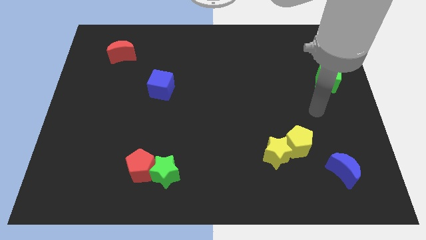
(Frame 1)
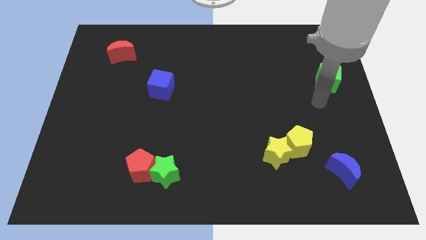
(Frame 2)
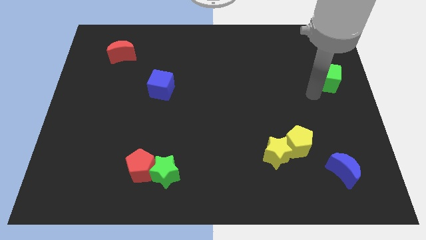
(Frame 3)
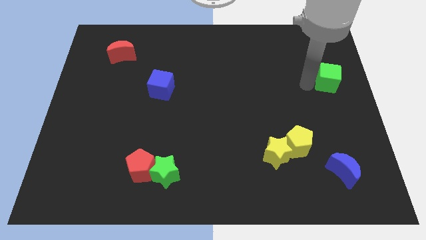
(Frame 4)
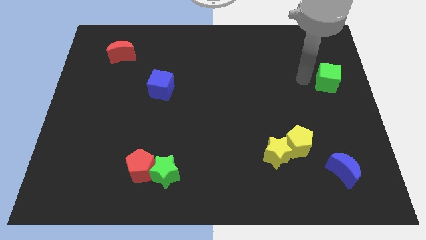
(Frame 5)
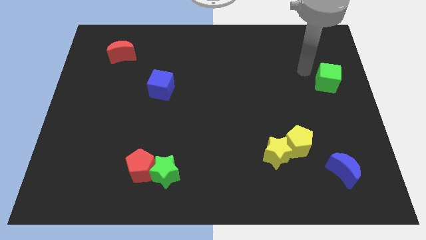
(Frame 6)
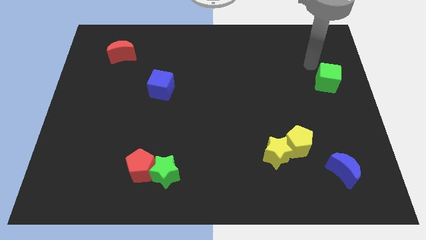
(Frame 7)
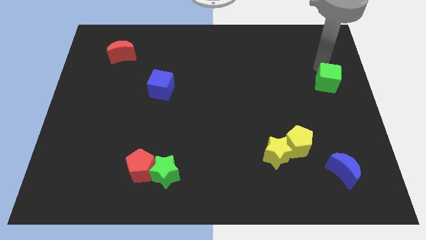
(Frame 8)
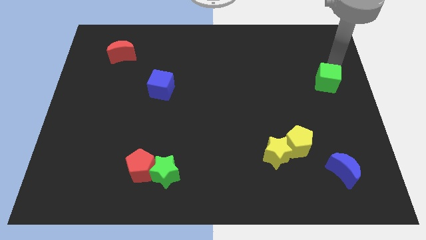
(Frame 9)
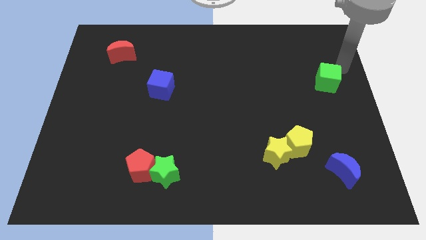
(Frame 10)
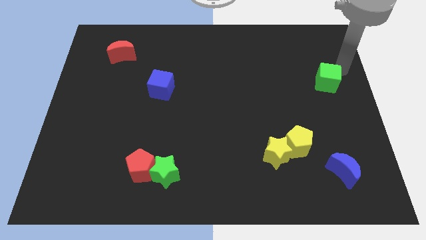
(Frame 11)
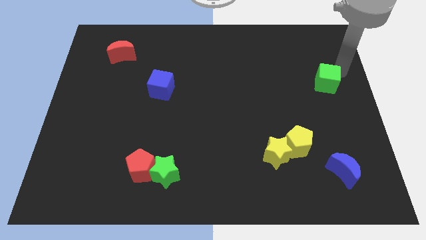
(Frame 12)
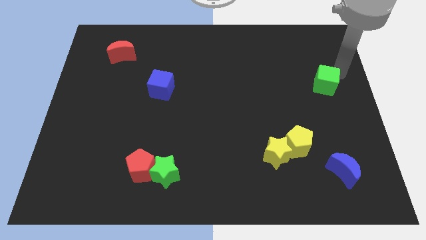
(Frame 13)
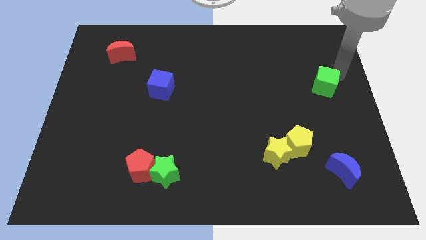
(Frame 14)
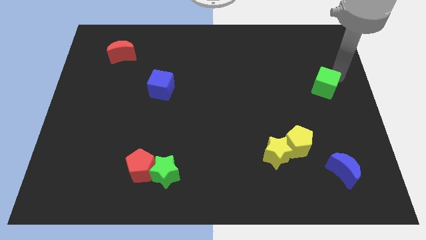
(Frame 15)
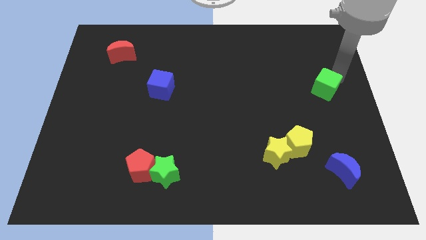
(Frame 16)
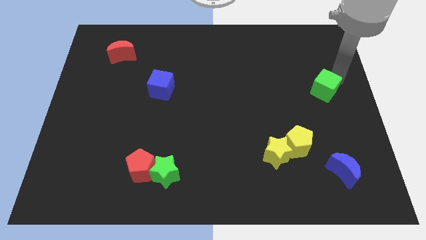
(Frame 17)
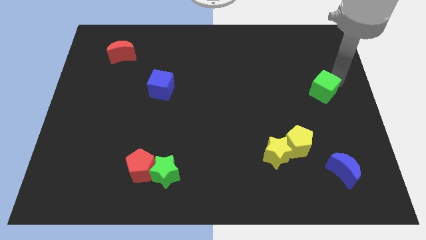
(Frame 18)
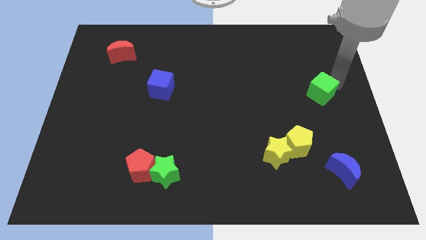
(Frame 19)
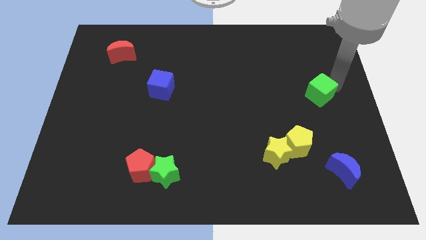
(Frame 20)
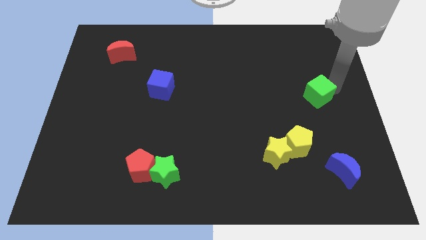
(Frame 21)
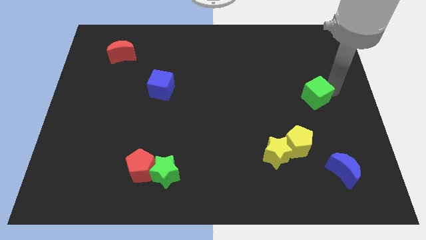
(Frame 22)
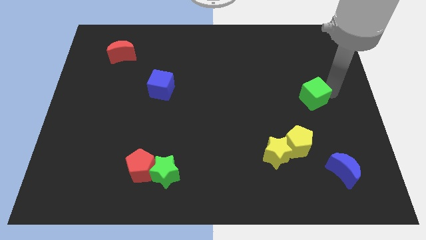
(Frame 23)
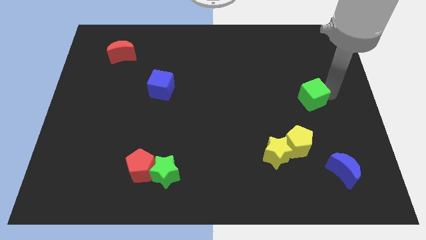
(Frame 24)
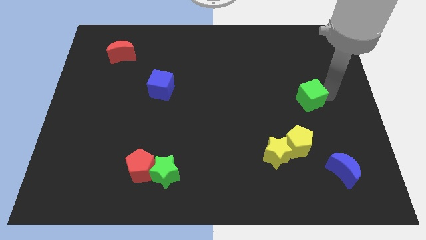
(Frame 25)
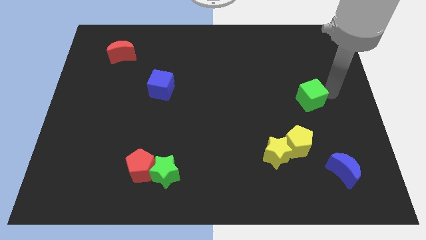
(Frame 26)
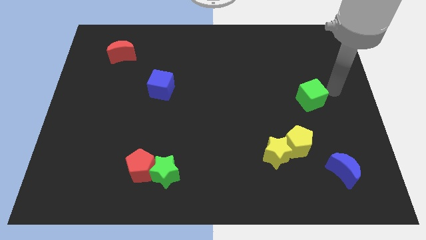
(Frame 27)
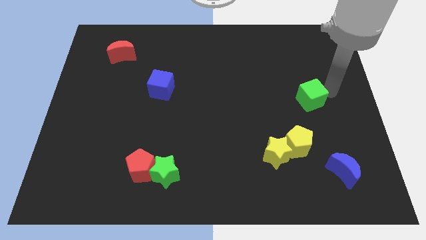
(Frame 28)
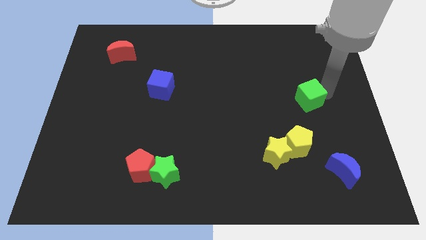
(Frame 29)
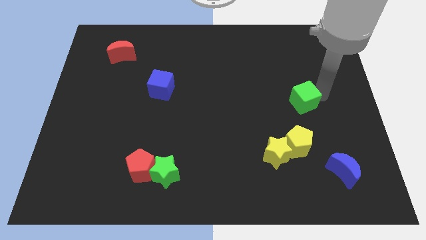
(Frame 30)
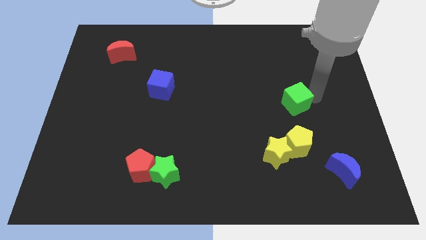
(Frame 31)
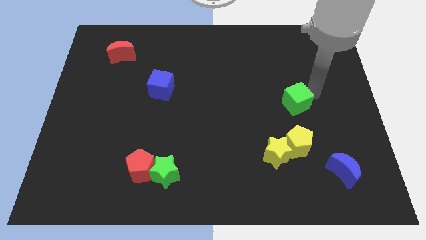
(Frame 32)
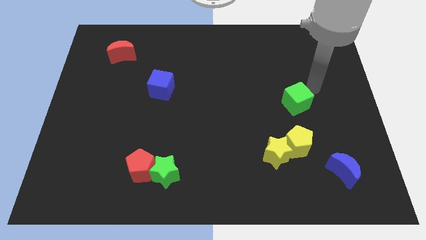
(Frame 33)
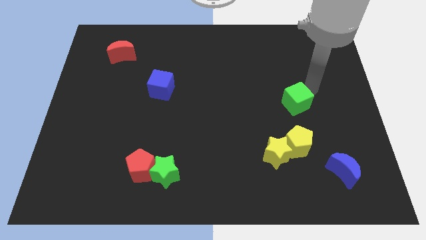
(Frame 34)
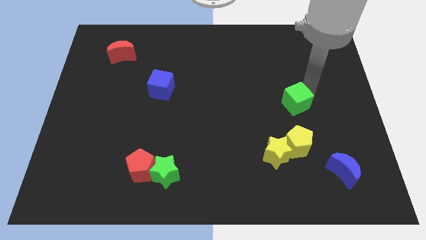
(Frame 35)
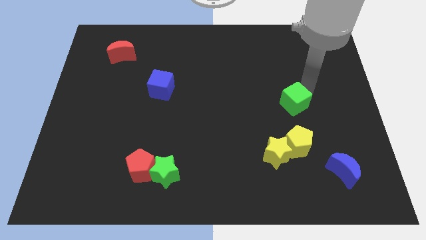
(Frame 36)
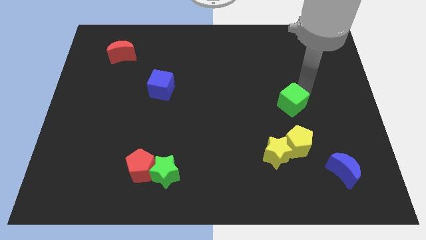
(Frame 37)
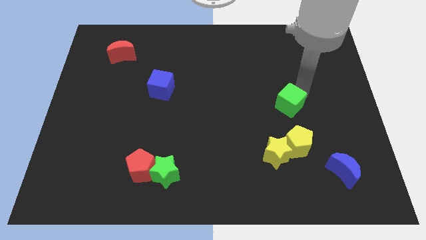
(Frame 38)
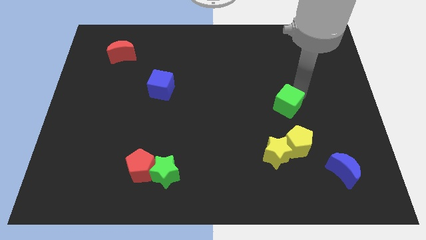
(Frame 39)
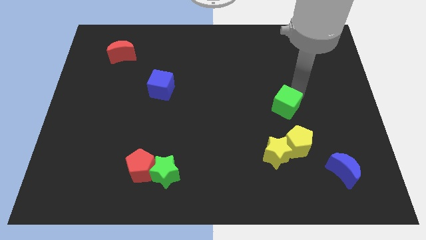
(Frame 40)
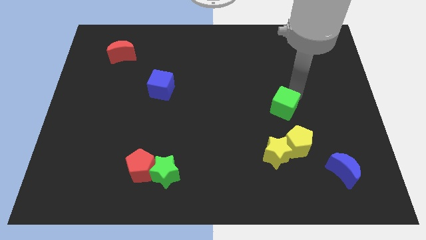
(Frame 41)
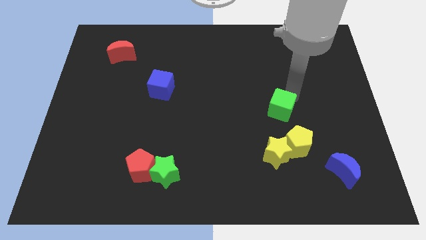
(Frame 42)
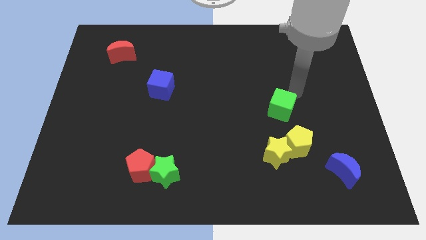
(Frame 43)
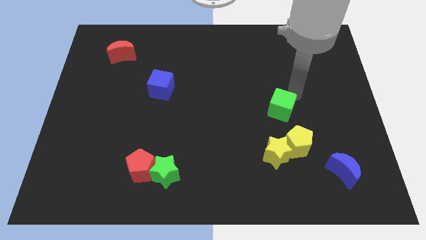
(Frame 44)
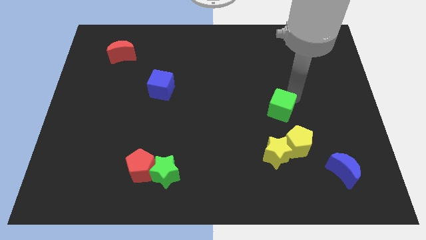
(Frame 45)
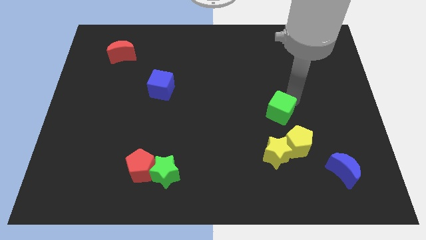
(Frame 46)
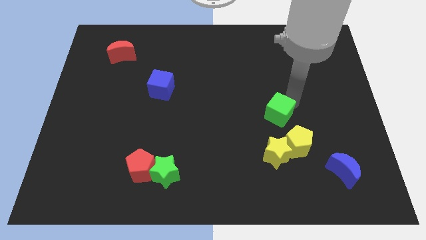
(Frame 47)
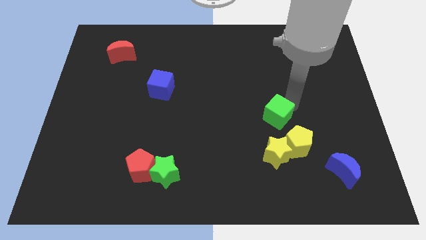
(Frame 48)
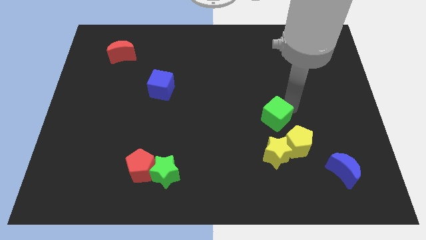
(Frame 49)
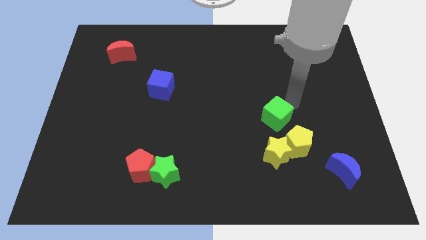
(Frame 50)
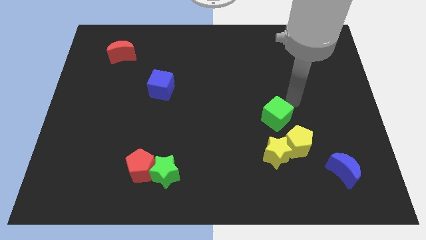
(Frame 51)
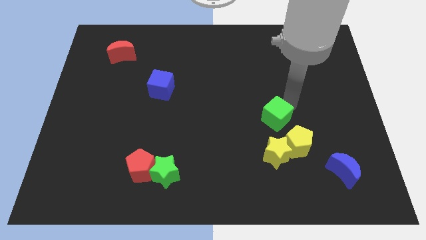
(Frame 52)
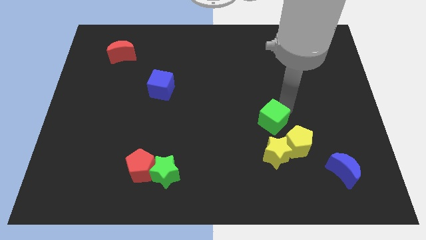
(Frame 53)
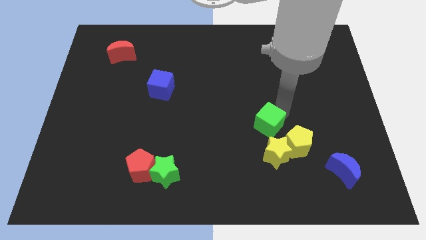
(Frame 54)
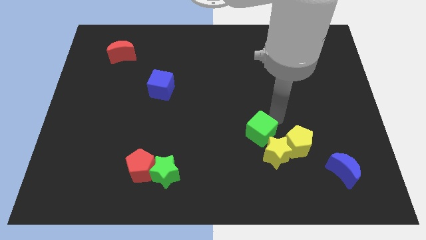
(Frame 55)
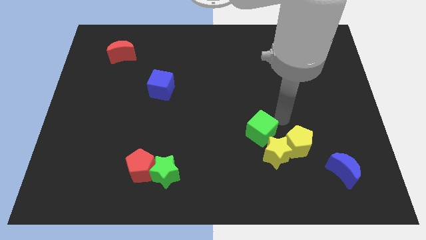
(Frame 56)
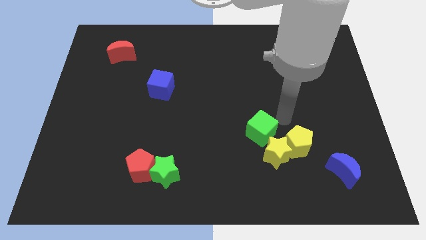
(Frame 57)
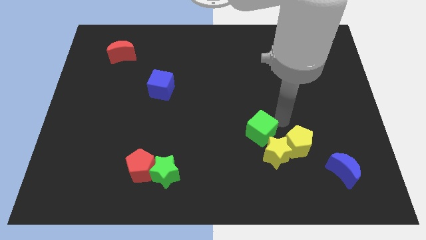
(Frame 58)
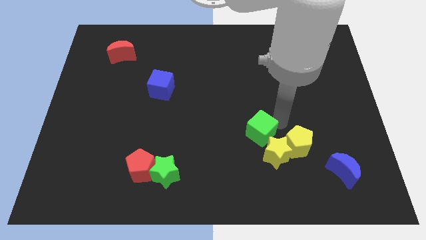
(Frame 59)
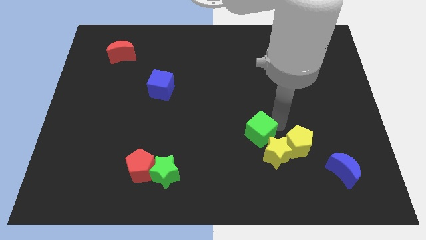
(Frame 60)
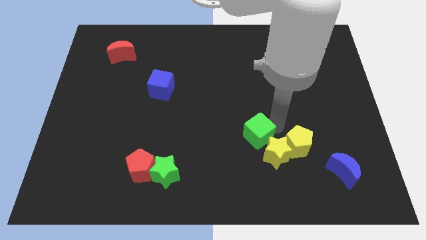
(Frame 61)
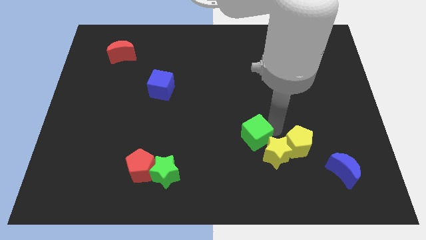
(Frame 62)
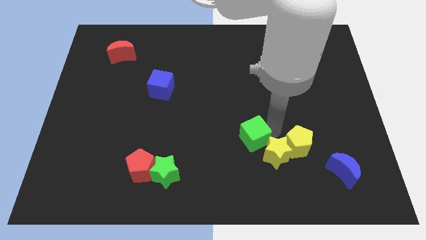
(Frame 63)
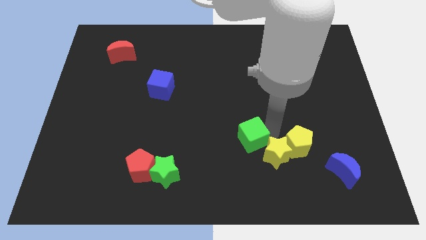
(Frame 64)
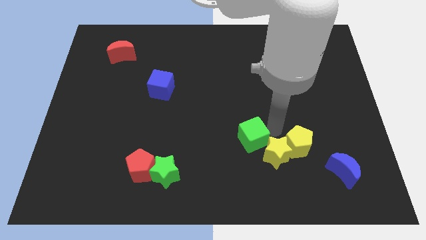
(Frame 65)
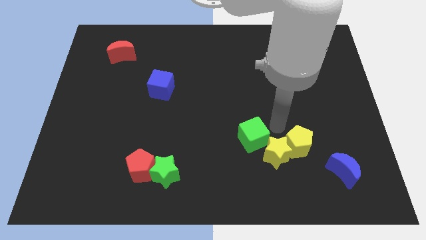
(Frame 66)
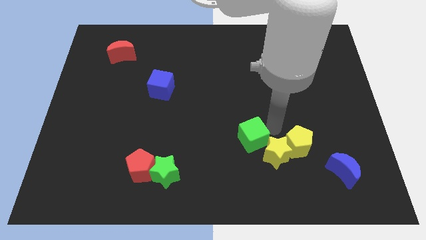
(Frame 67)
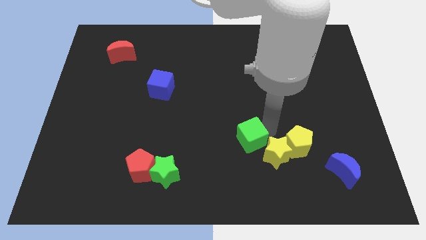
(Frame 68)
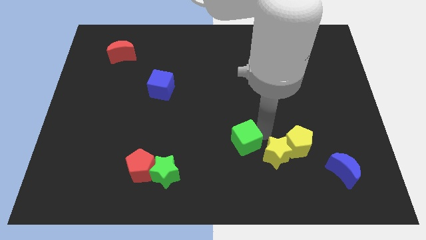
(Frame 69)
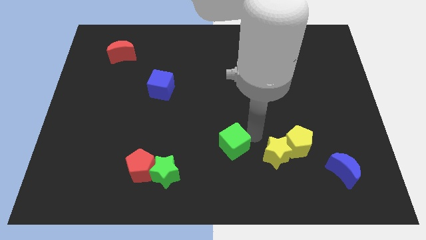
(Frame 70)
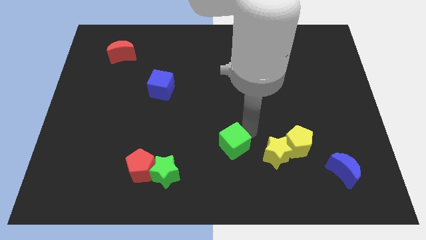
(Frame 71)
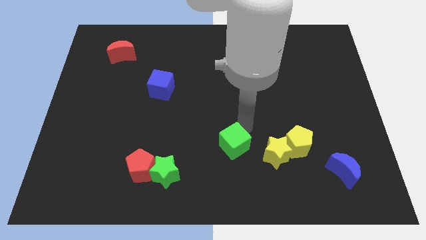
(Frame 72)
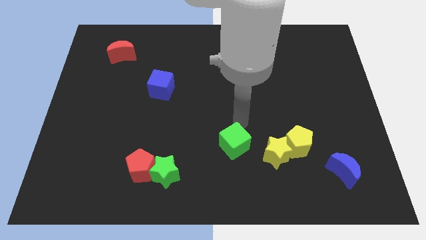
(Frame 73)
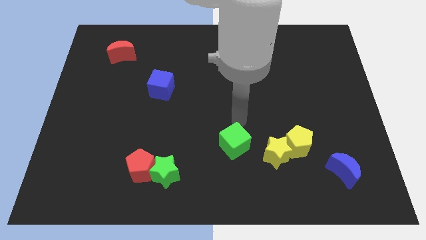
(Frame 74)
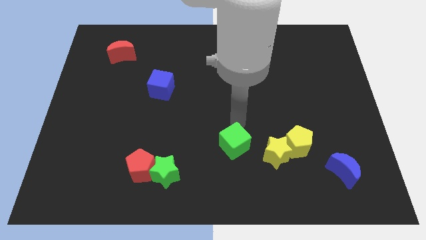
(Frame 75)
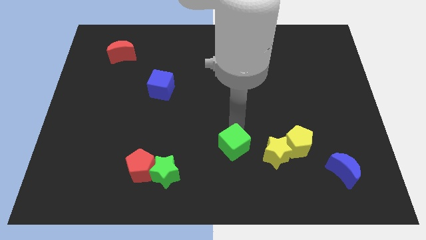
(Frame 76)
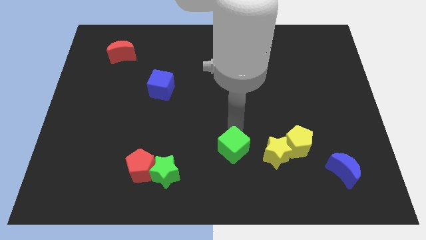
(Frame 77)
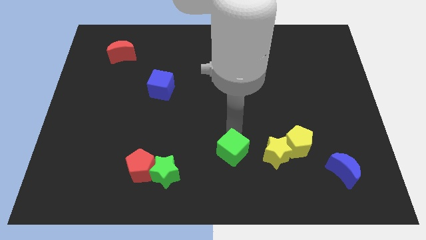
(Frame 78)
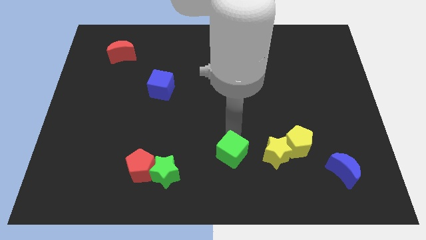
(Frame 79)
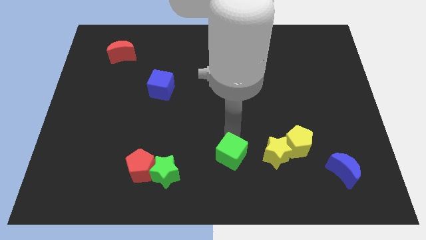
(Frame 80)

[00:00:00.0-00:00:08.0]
move the green cube to the bottom
